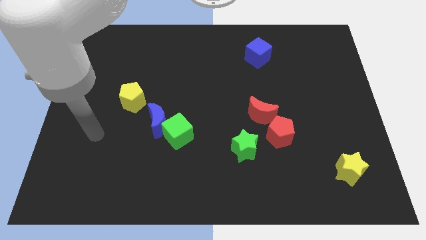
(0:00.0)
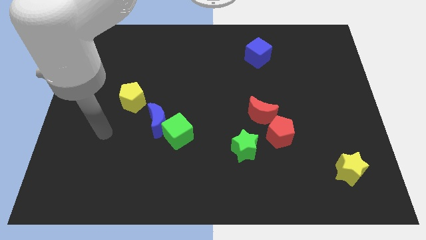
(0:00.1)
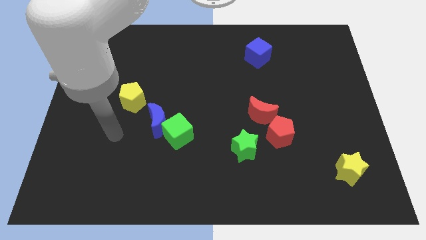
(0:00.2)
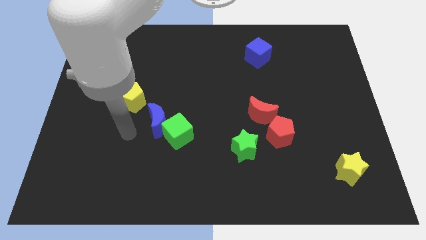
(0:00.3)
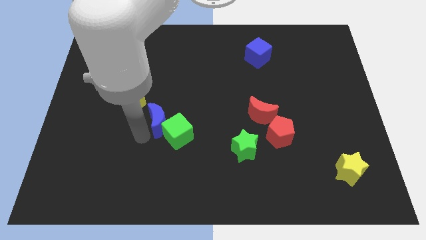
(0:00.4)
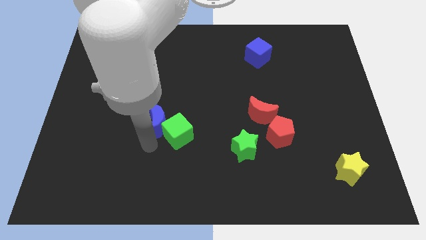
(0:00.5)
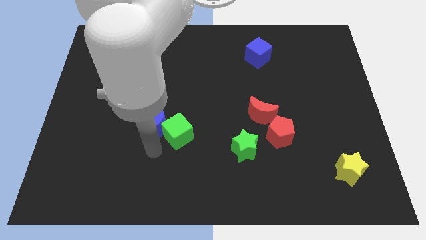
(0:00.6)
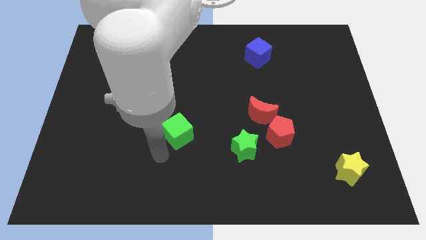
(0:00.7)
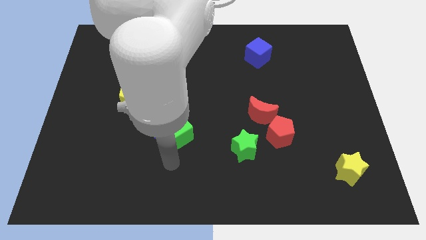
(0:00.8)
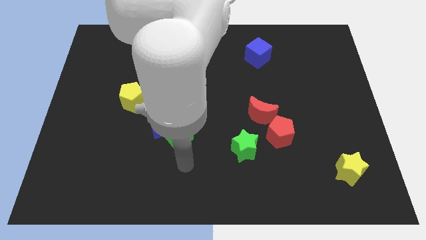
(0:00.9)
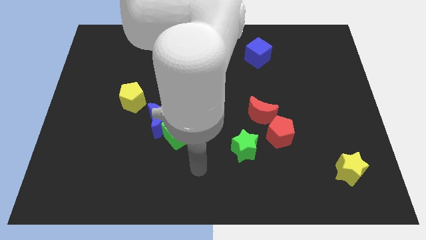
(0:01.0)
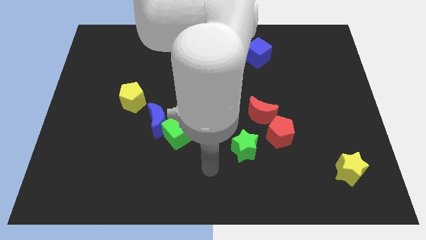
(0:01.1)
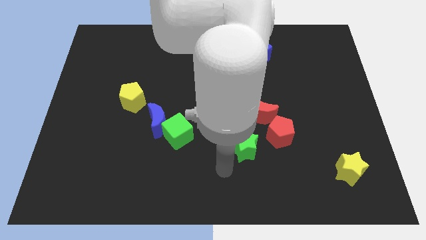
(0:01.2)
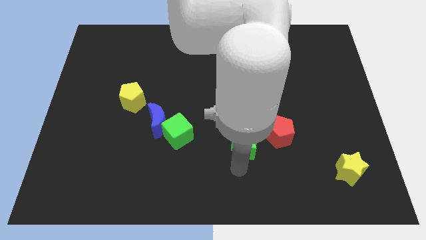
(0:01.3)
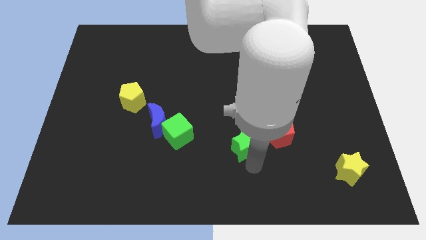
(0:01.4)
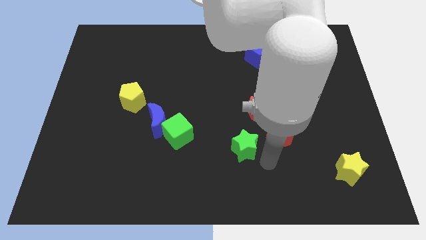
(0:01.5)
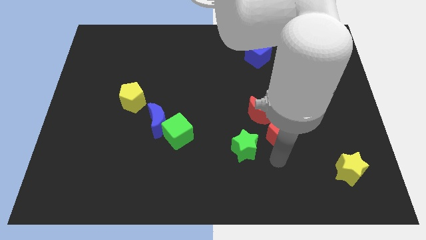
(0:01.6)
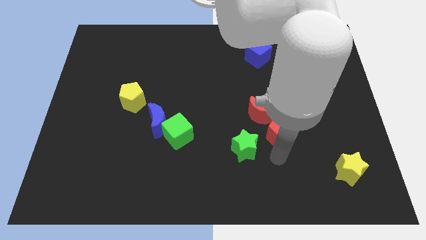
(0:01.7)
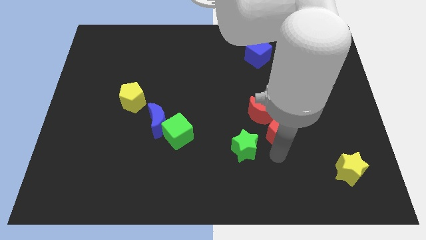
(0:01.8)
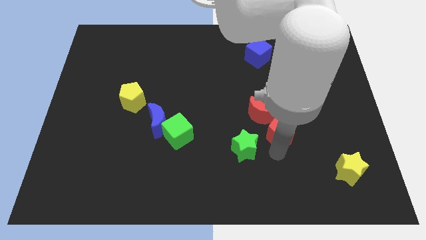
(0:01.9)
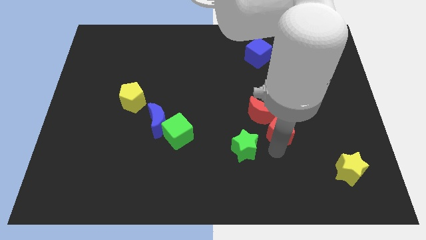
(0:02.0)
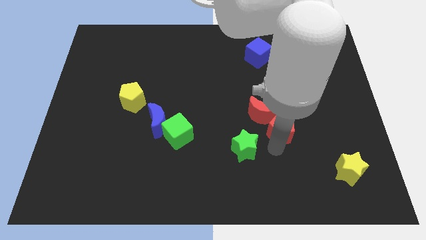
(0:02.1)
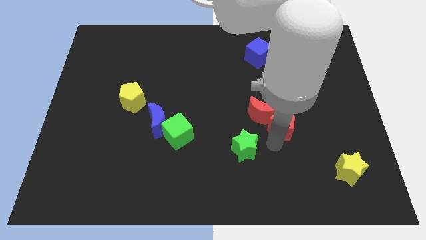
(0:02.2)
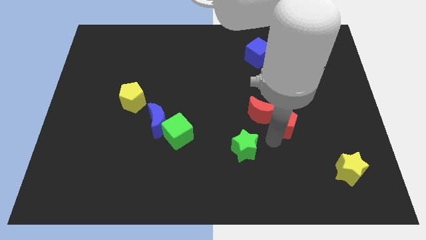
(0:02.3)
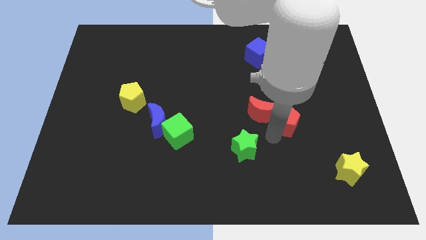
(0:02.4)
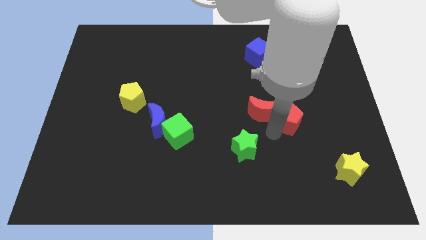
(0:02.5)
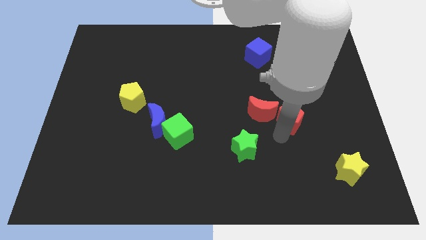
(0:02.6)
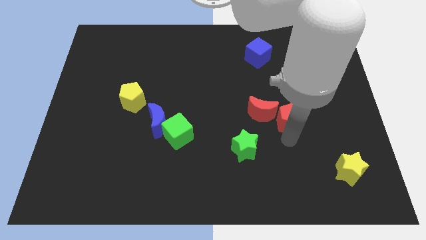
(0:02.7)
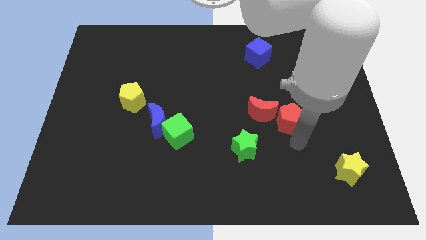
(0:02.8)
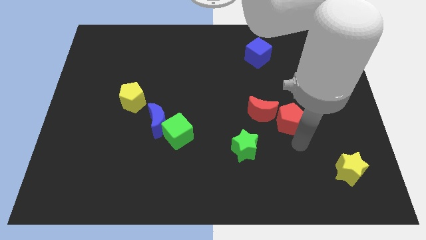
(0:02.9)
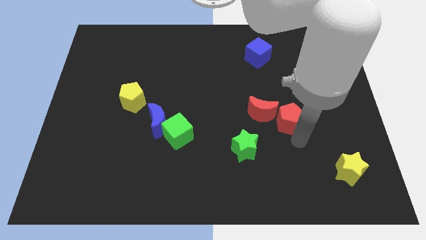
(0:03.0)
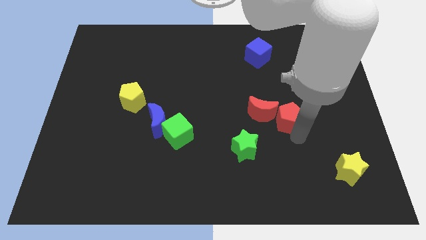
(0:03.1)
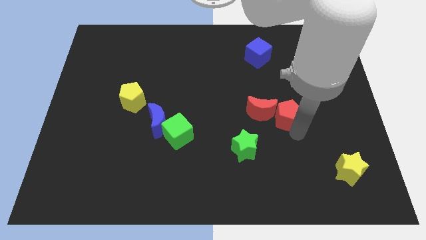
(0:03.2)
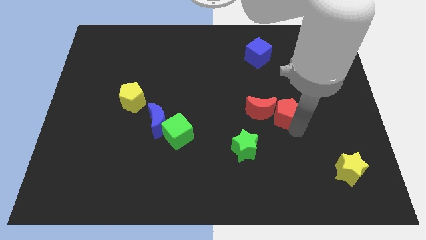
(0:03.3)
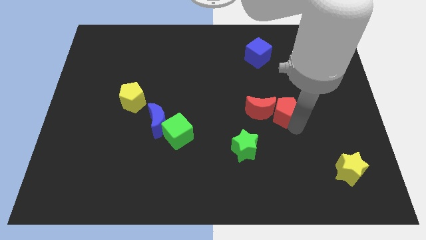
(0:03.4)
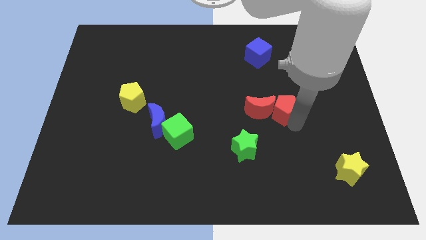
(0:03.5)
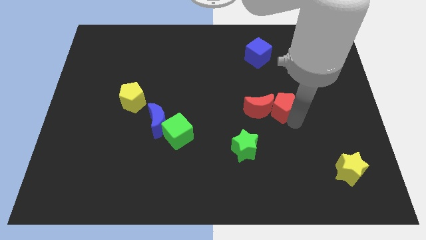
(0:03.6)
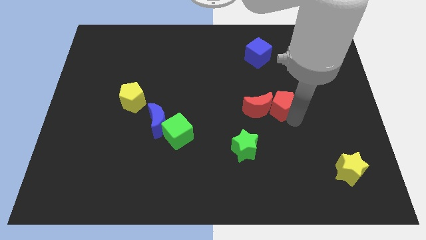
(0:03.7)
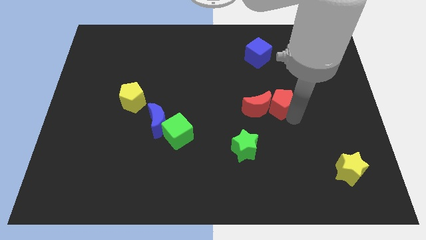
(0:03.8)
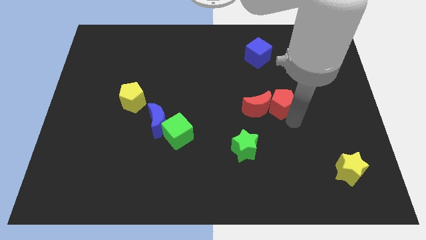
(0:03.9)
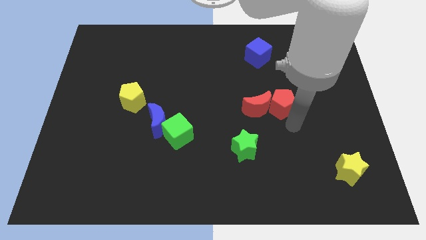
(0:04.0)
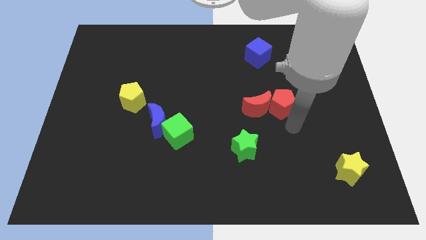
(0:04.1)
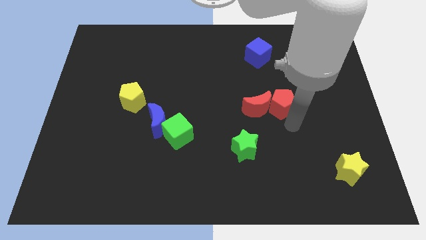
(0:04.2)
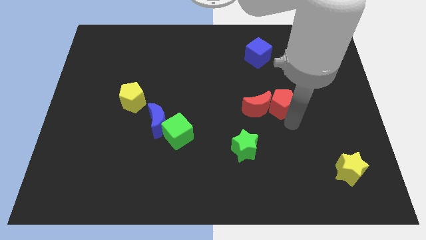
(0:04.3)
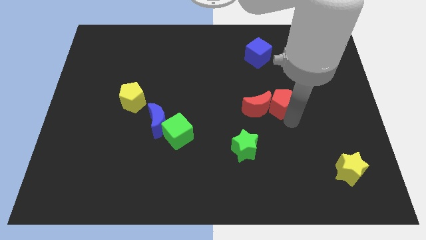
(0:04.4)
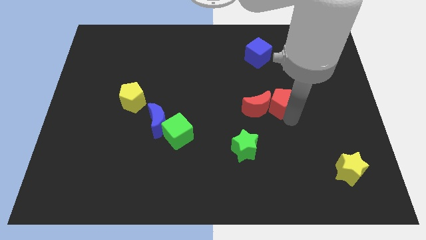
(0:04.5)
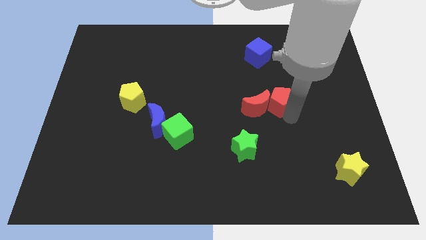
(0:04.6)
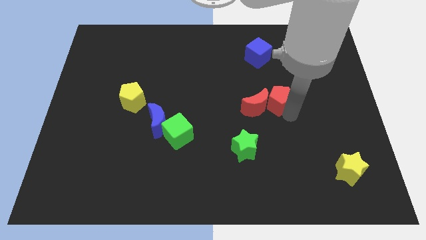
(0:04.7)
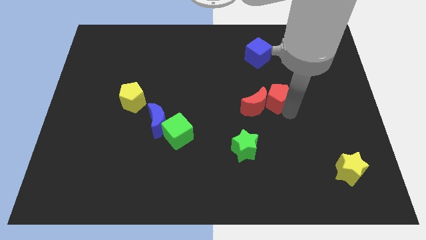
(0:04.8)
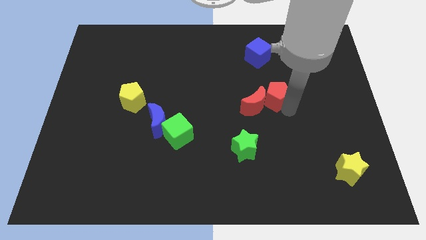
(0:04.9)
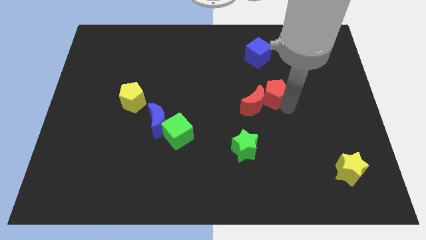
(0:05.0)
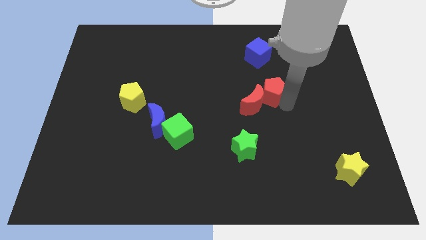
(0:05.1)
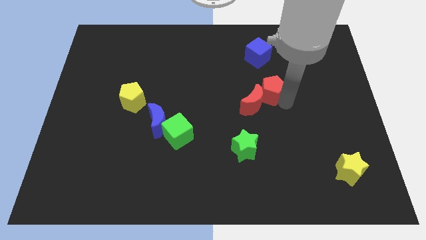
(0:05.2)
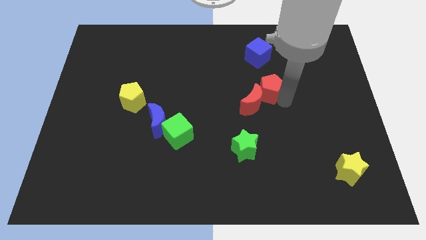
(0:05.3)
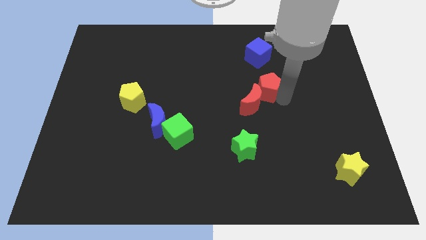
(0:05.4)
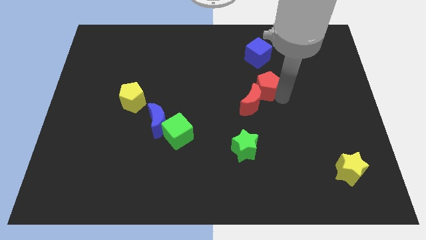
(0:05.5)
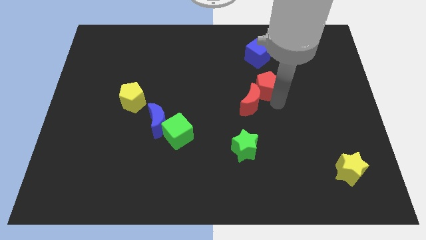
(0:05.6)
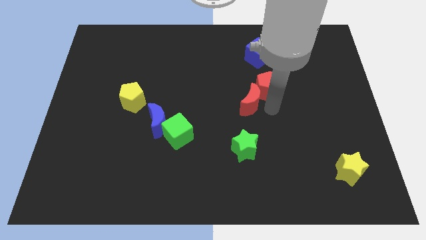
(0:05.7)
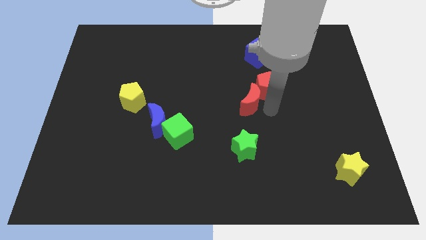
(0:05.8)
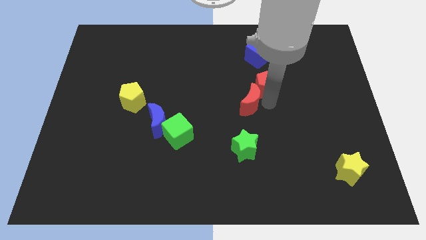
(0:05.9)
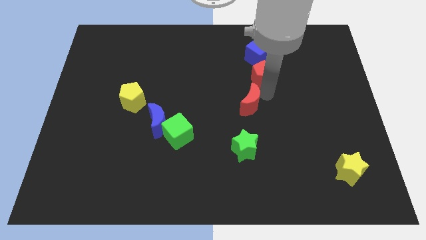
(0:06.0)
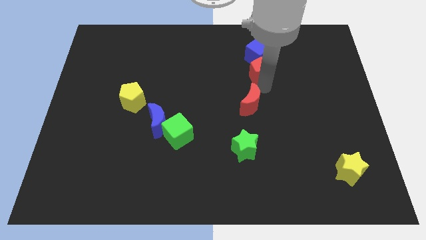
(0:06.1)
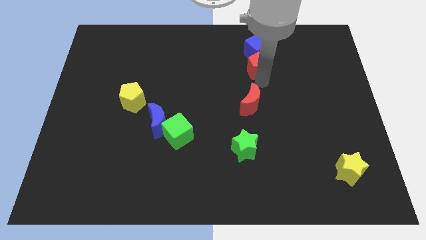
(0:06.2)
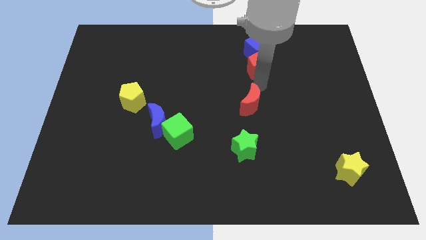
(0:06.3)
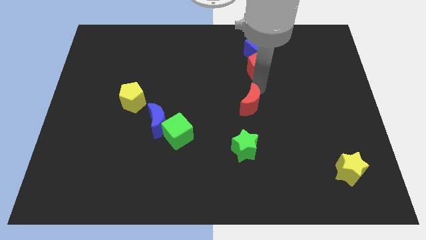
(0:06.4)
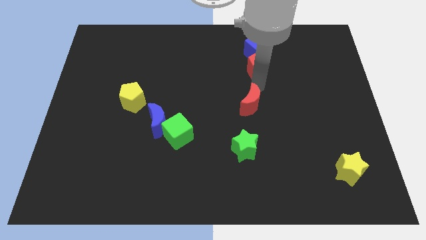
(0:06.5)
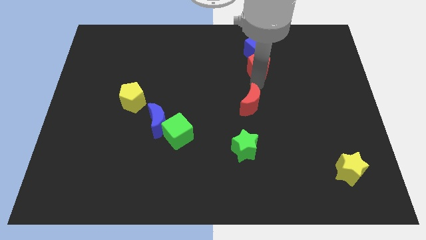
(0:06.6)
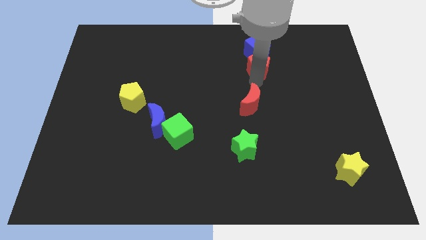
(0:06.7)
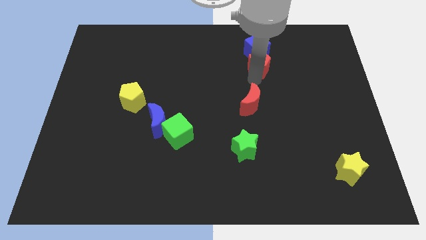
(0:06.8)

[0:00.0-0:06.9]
move the red pentagon close to the blue cube

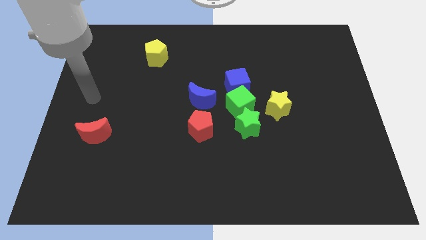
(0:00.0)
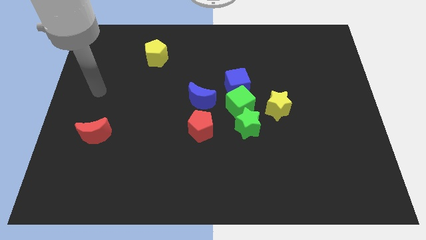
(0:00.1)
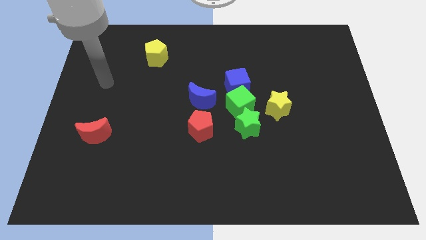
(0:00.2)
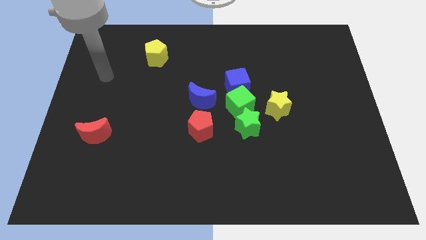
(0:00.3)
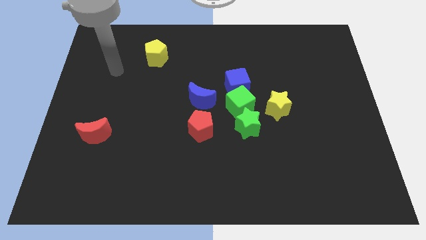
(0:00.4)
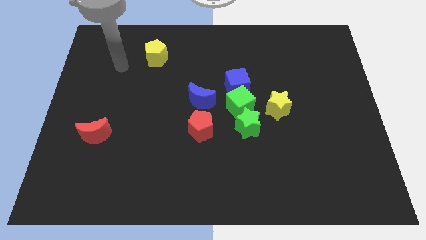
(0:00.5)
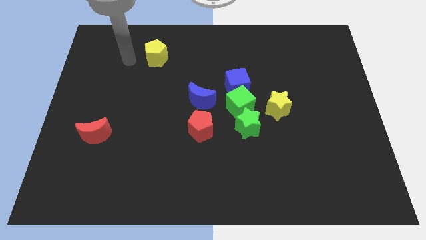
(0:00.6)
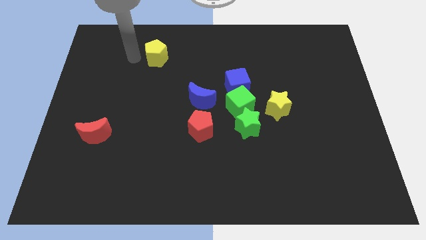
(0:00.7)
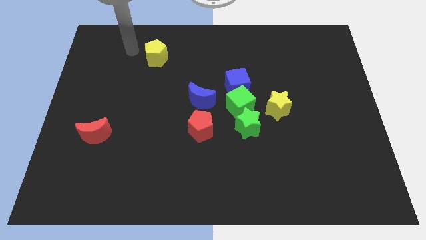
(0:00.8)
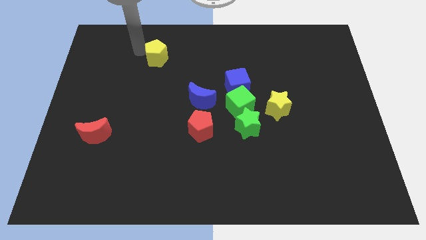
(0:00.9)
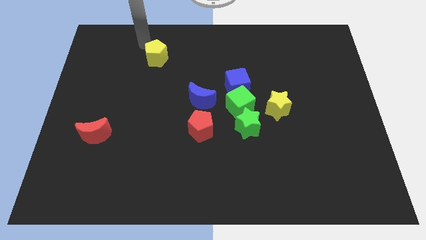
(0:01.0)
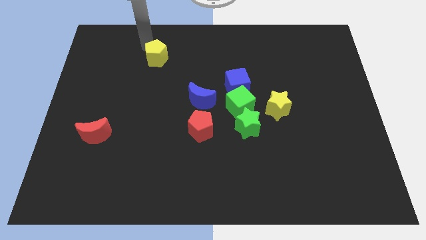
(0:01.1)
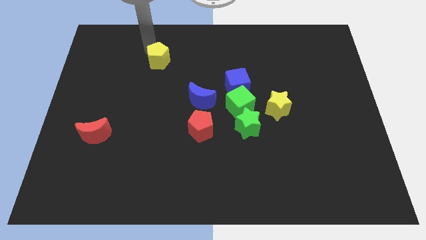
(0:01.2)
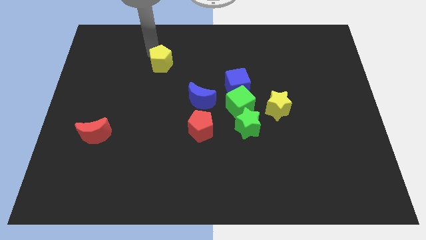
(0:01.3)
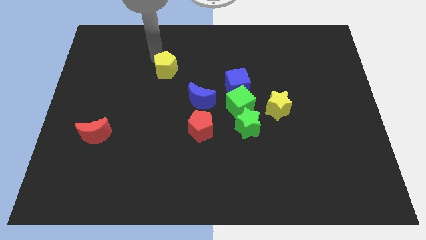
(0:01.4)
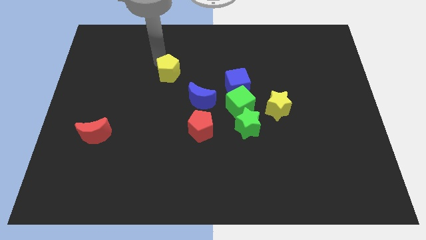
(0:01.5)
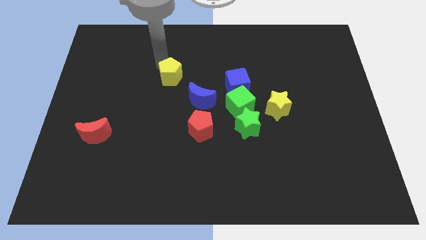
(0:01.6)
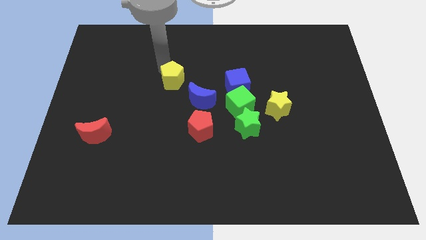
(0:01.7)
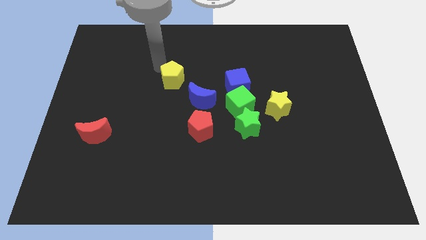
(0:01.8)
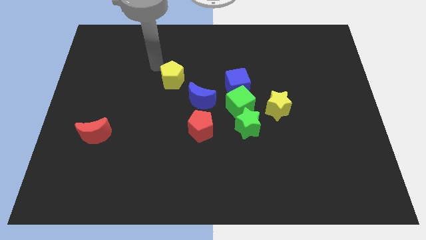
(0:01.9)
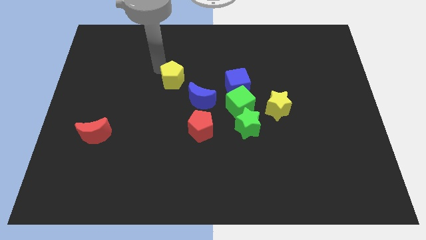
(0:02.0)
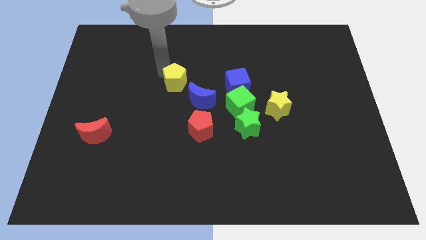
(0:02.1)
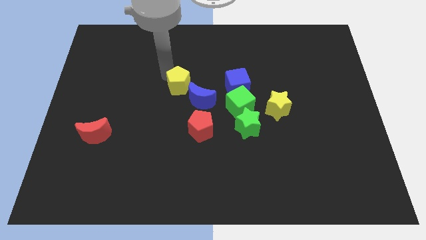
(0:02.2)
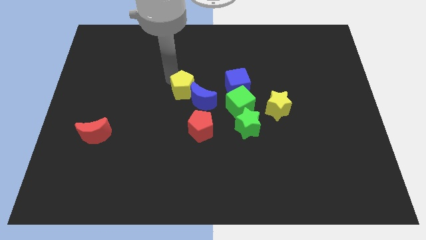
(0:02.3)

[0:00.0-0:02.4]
put the yellow pentagon towards the blue moon
